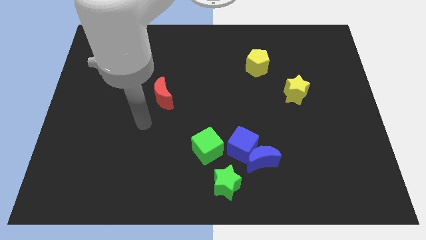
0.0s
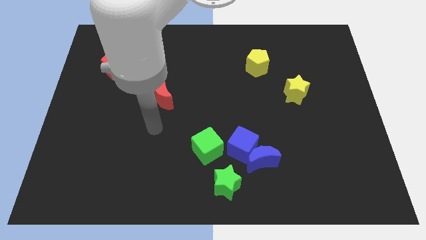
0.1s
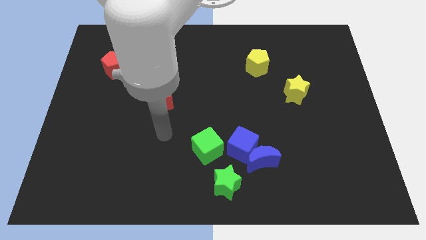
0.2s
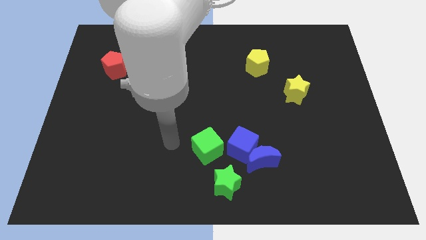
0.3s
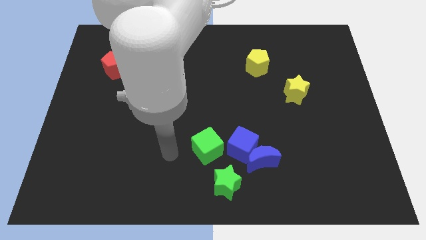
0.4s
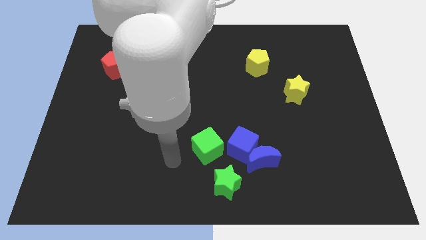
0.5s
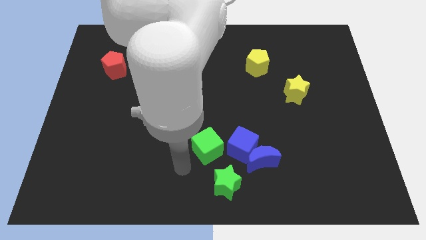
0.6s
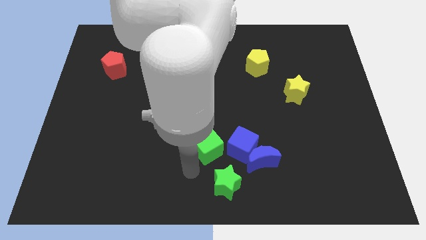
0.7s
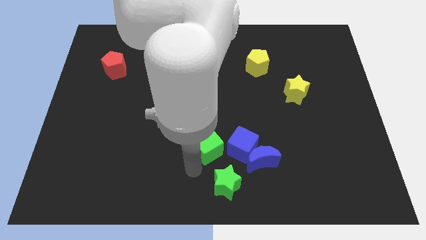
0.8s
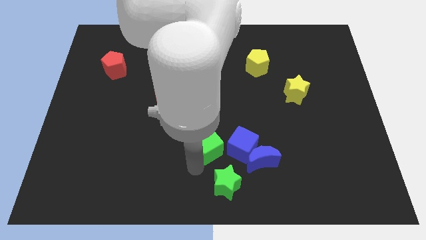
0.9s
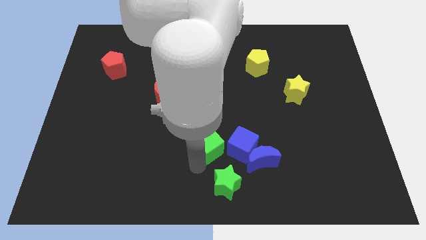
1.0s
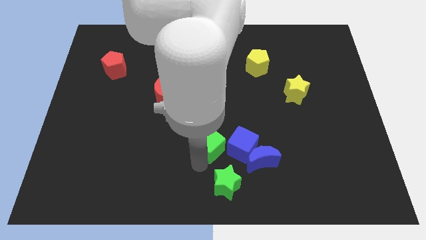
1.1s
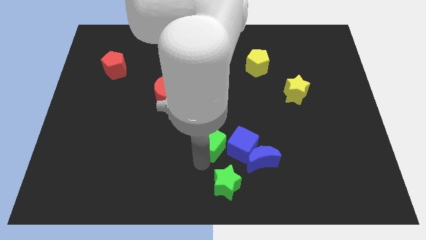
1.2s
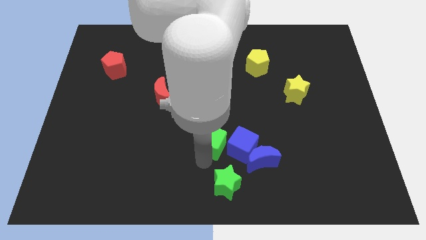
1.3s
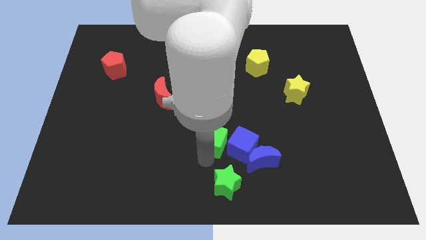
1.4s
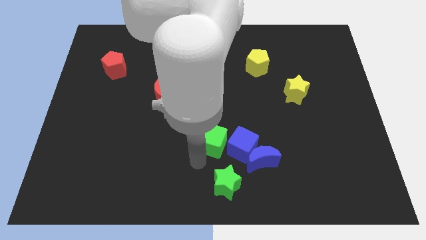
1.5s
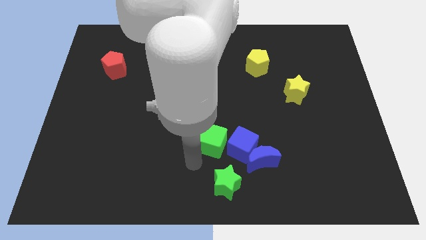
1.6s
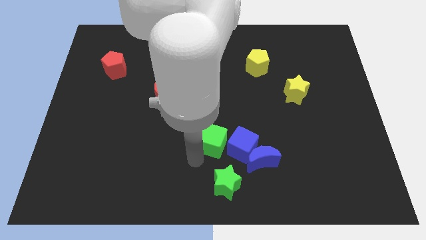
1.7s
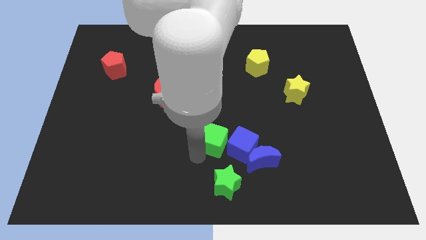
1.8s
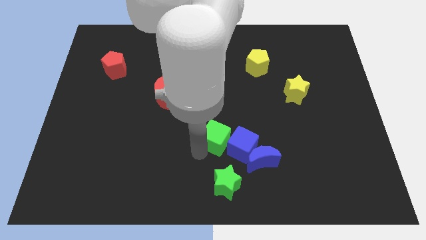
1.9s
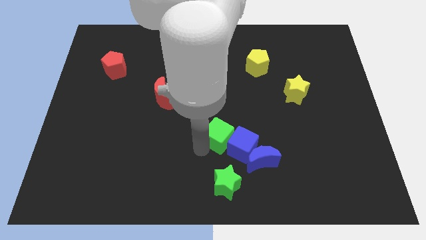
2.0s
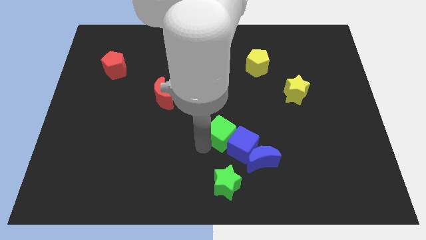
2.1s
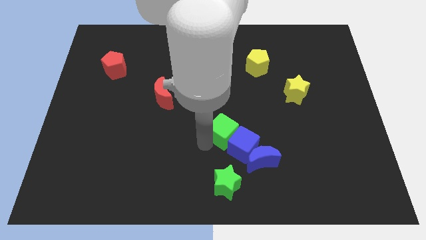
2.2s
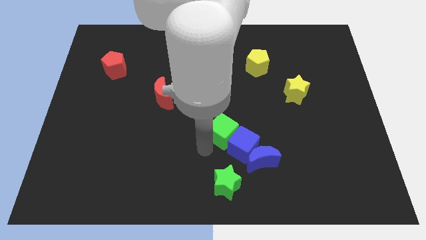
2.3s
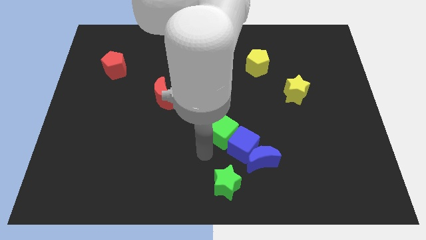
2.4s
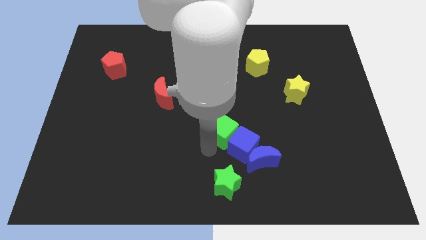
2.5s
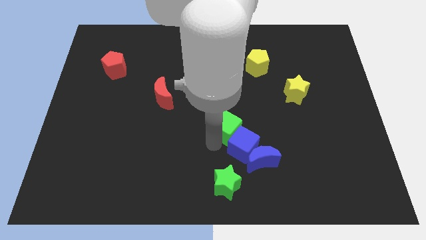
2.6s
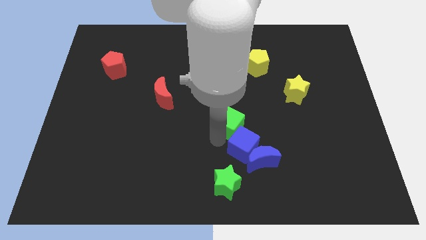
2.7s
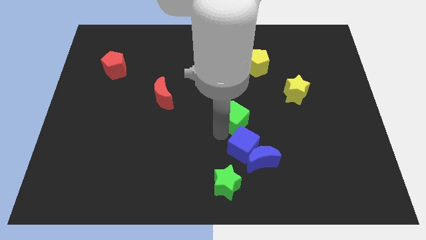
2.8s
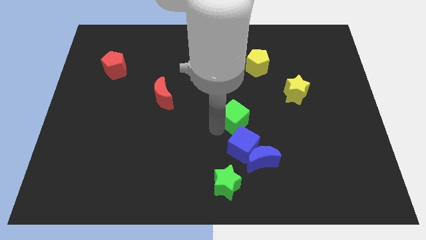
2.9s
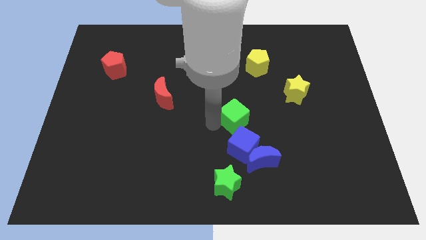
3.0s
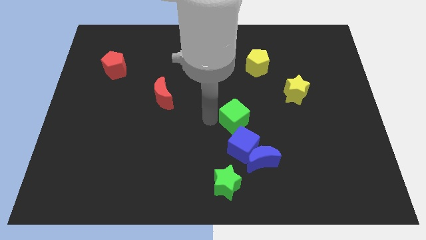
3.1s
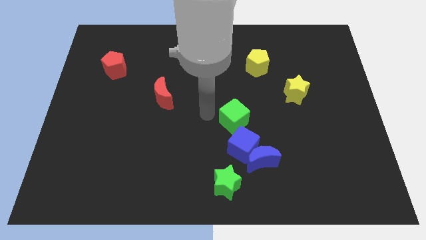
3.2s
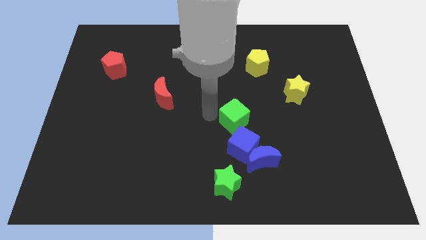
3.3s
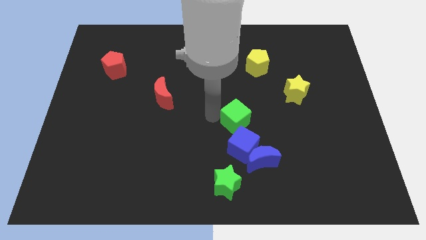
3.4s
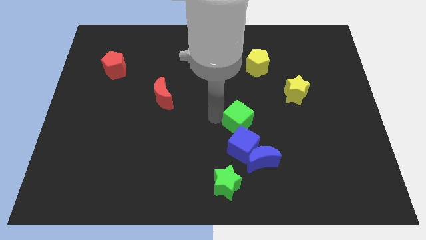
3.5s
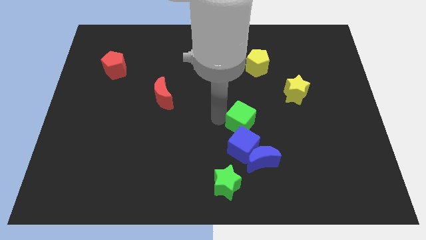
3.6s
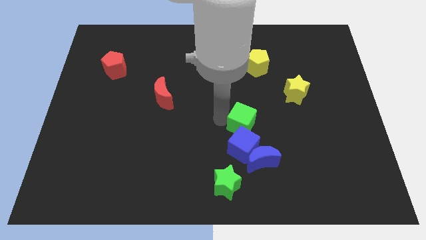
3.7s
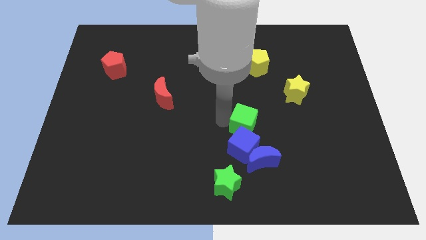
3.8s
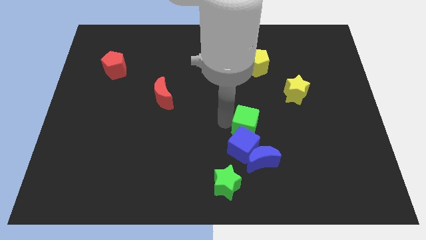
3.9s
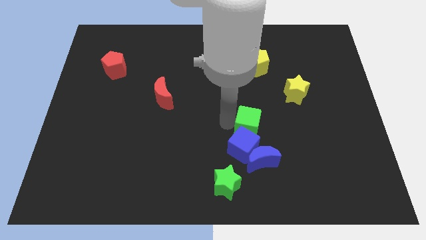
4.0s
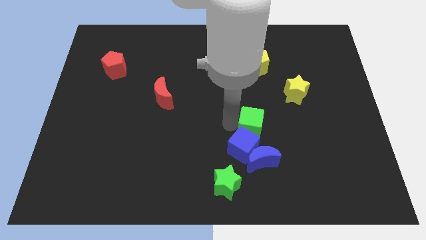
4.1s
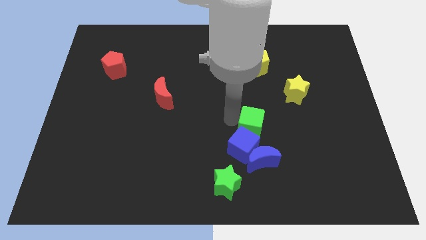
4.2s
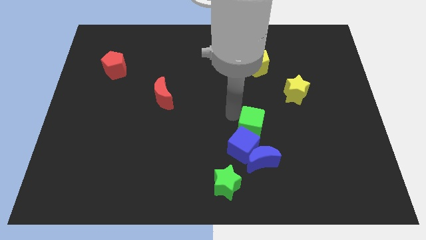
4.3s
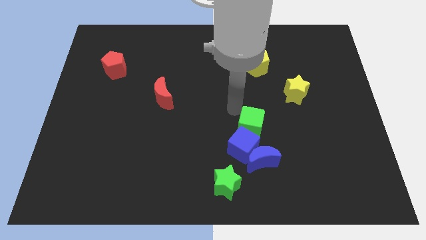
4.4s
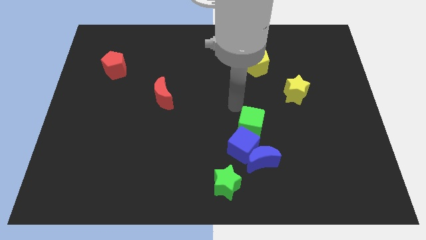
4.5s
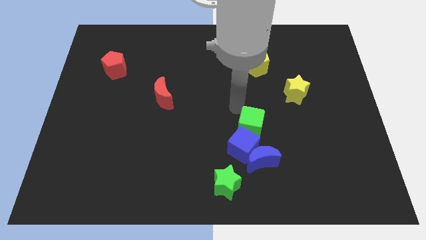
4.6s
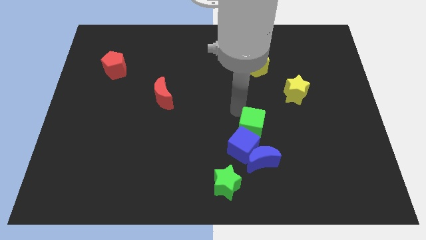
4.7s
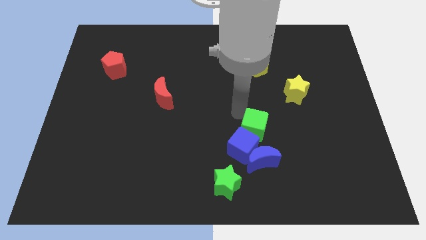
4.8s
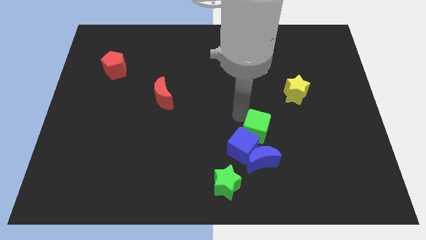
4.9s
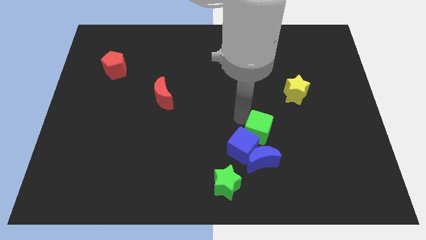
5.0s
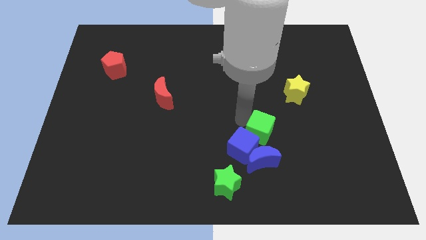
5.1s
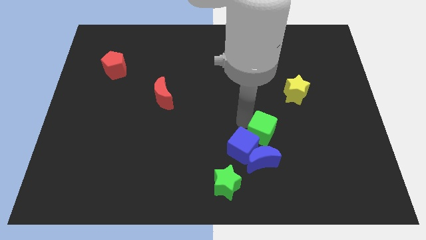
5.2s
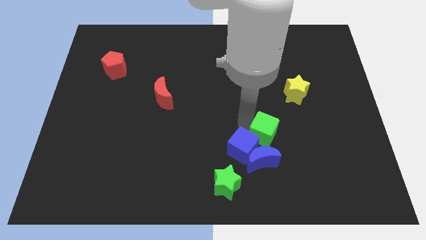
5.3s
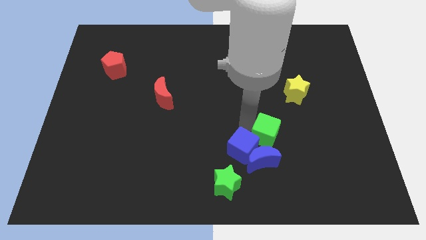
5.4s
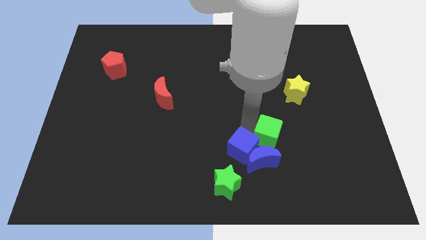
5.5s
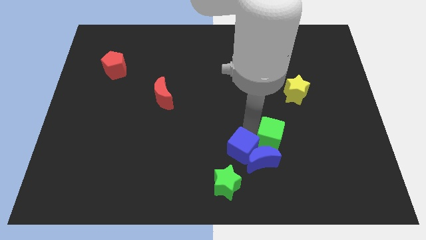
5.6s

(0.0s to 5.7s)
push the green cube next to the blue moon

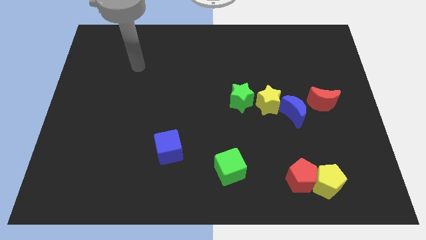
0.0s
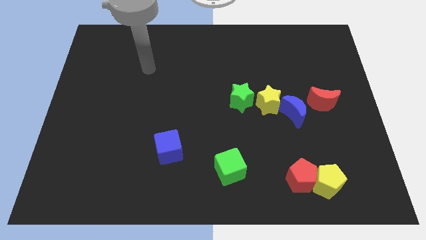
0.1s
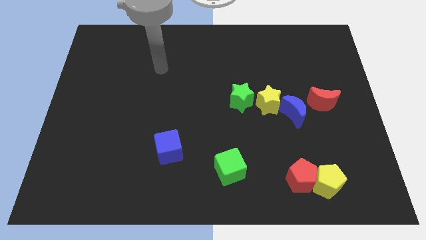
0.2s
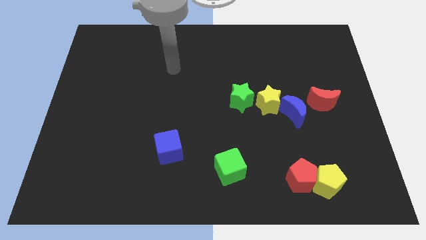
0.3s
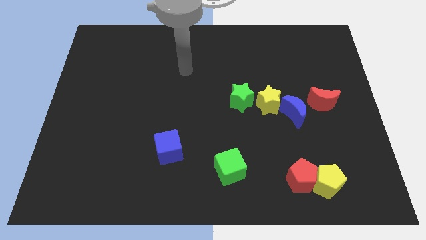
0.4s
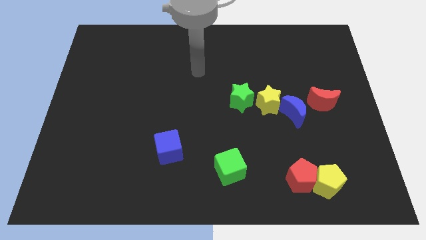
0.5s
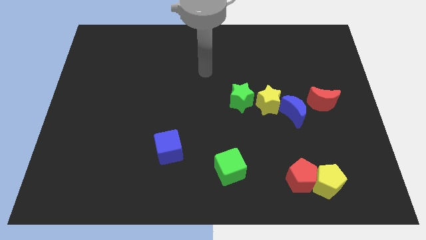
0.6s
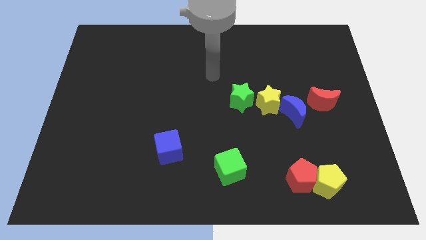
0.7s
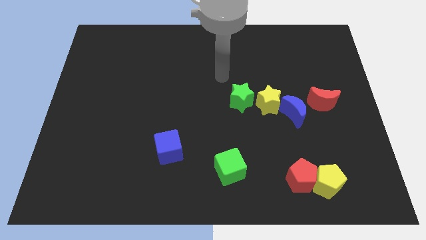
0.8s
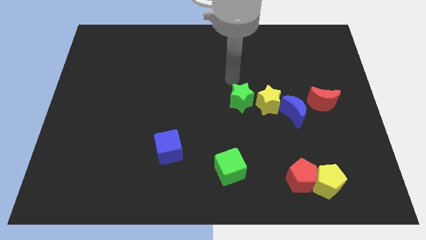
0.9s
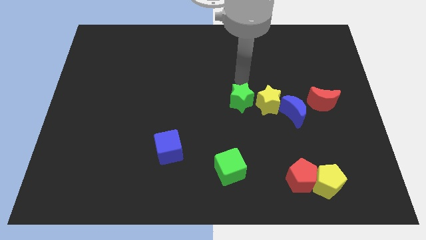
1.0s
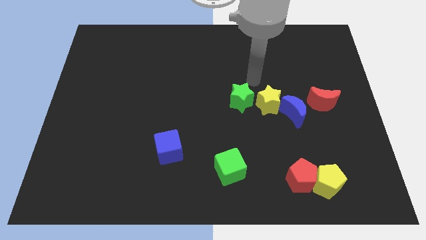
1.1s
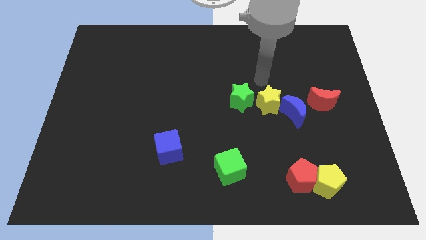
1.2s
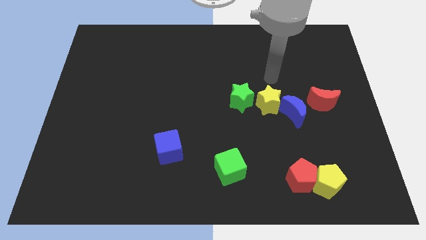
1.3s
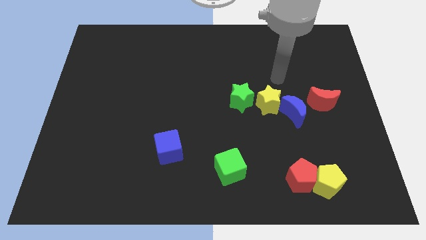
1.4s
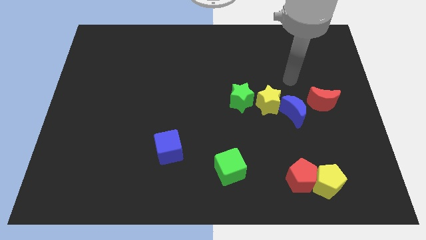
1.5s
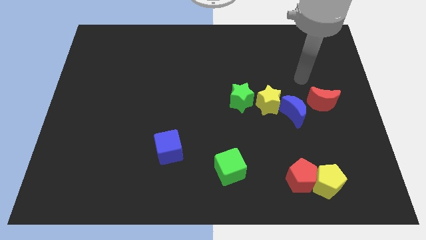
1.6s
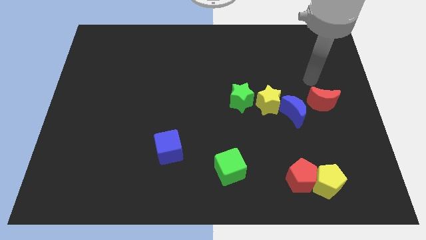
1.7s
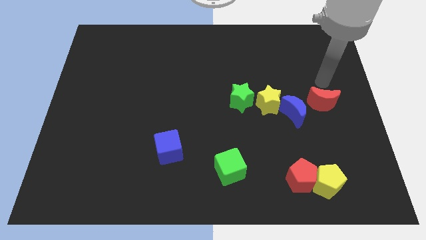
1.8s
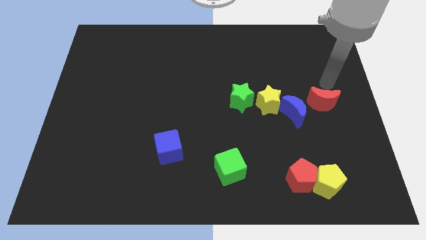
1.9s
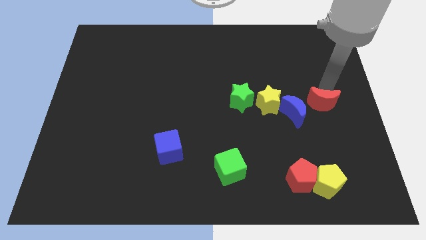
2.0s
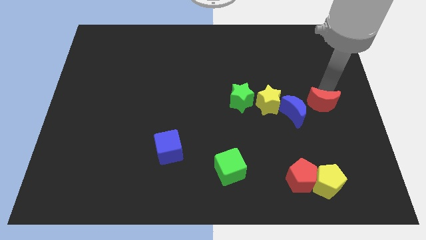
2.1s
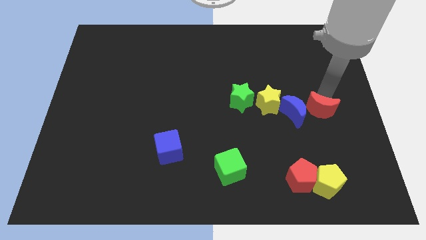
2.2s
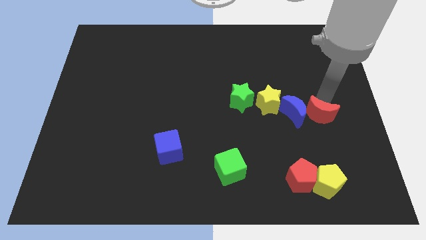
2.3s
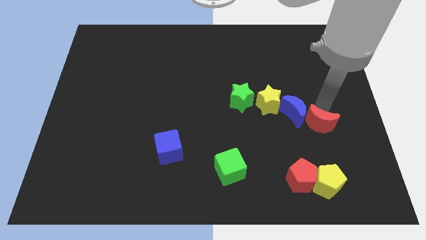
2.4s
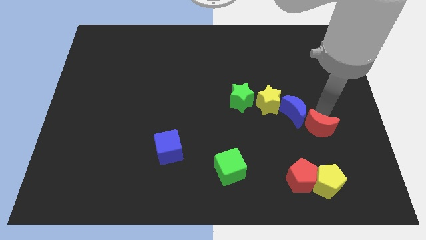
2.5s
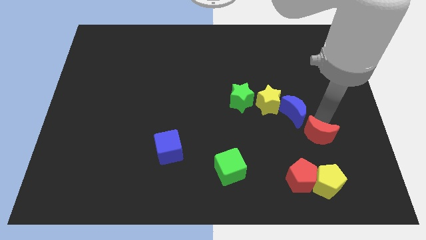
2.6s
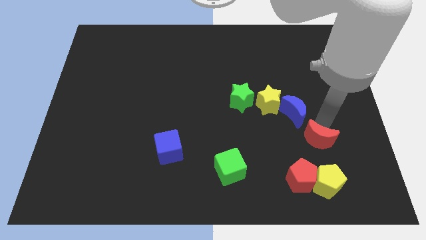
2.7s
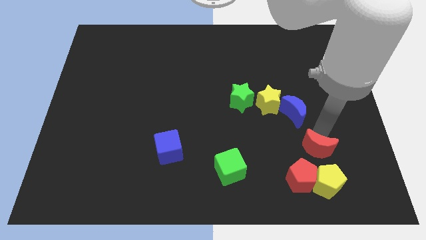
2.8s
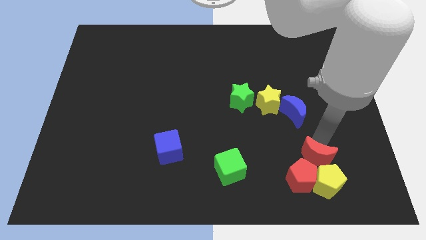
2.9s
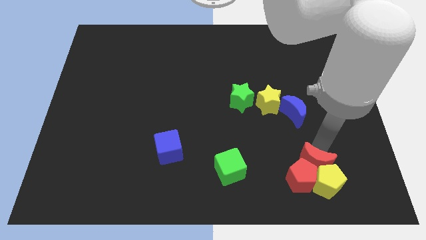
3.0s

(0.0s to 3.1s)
slide the red moon to the red pentagon
